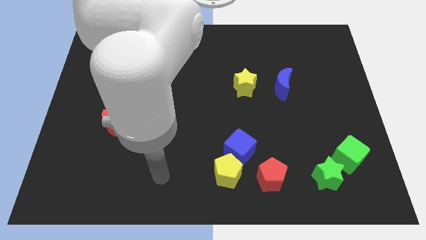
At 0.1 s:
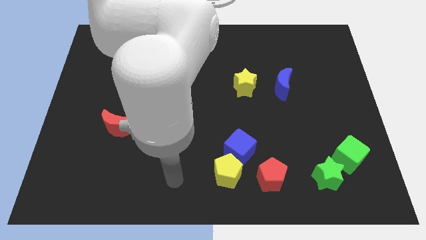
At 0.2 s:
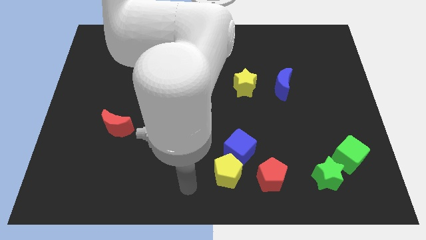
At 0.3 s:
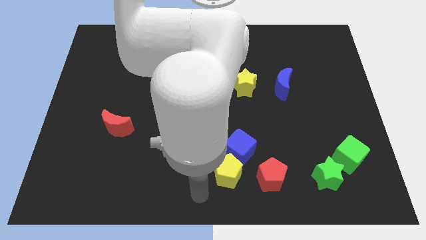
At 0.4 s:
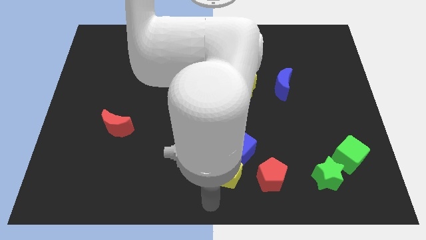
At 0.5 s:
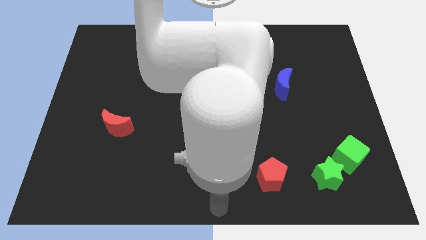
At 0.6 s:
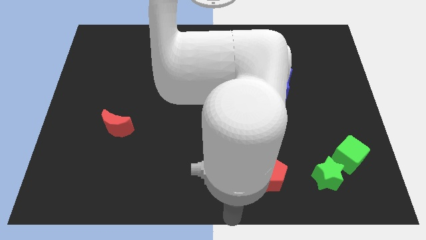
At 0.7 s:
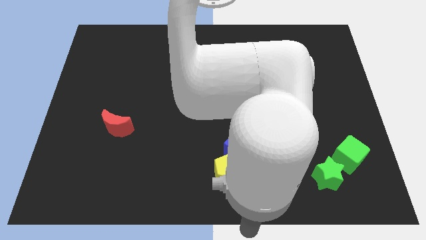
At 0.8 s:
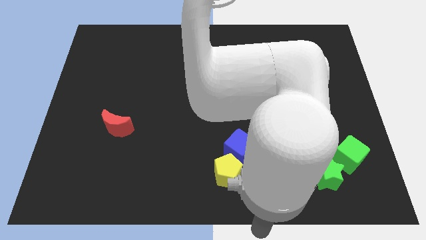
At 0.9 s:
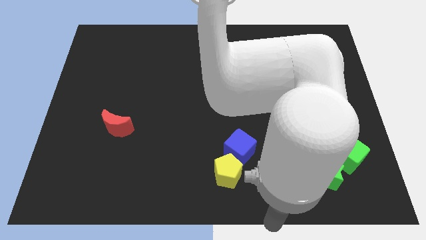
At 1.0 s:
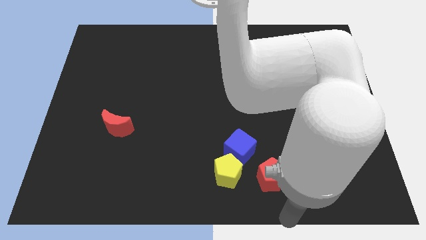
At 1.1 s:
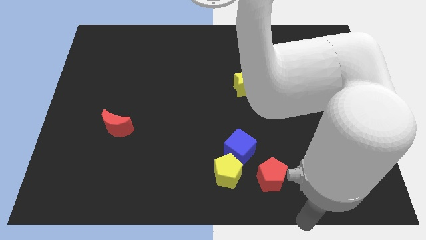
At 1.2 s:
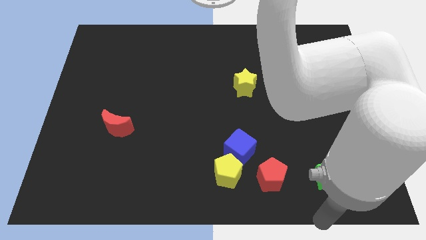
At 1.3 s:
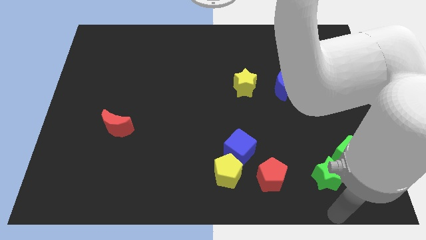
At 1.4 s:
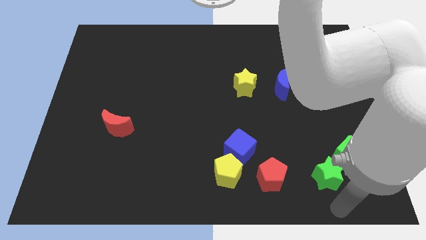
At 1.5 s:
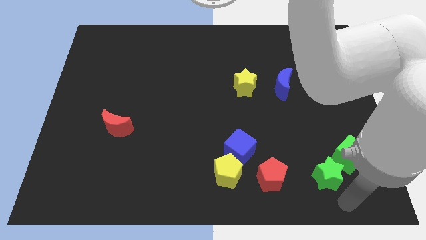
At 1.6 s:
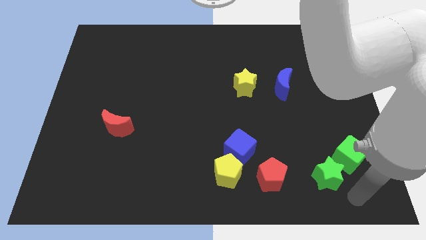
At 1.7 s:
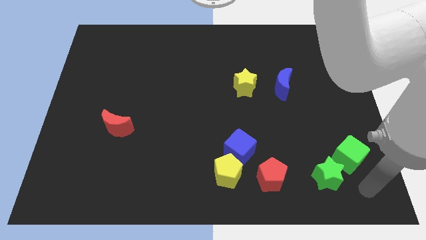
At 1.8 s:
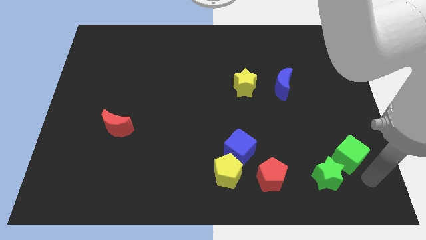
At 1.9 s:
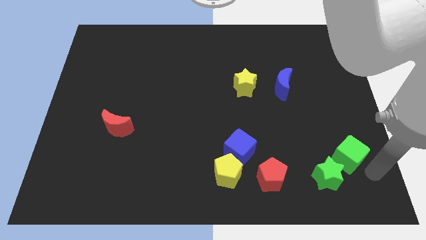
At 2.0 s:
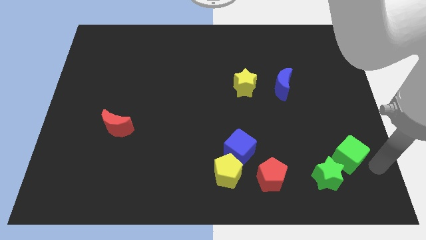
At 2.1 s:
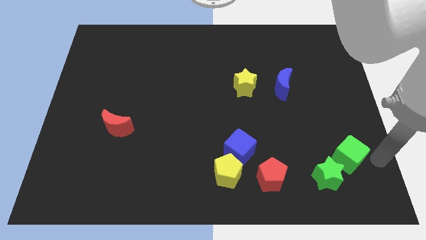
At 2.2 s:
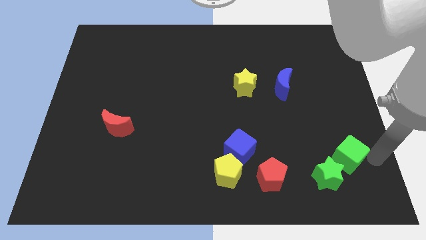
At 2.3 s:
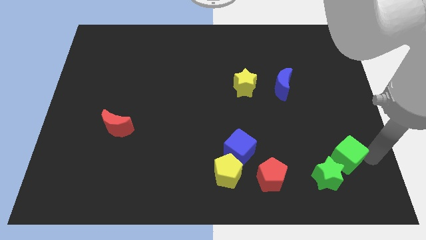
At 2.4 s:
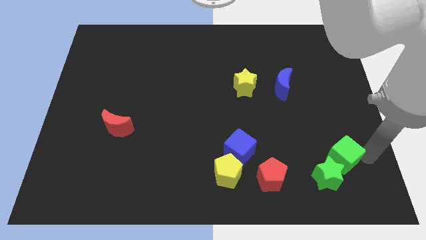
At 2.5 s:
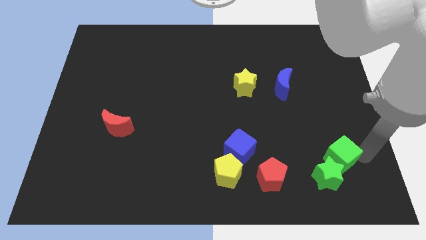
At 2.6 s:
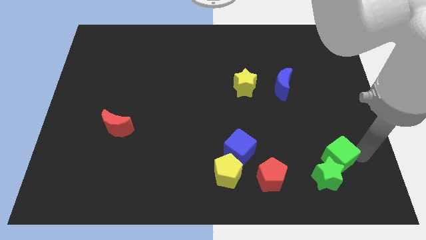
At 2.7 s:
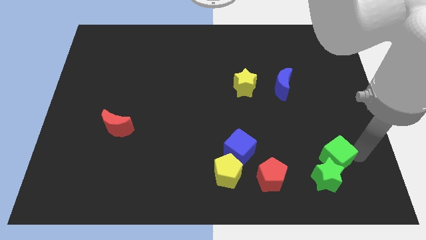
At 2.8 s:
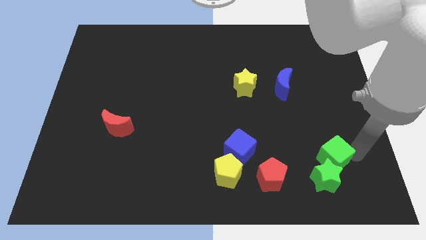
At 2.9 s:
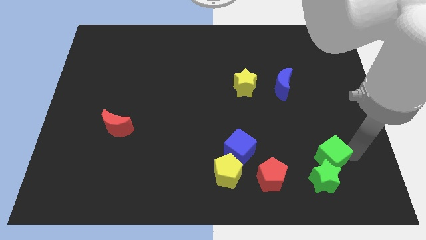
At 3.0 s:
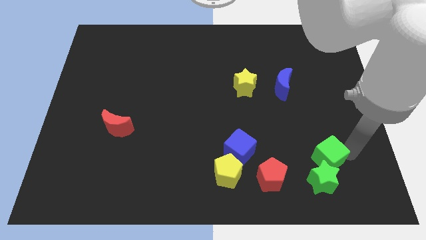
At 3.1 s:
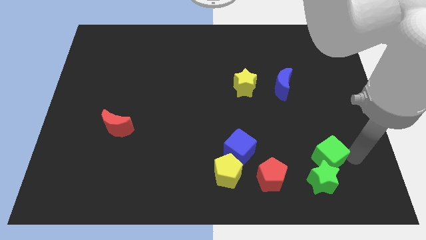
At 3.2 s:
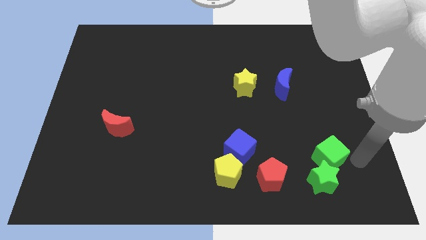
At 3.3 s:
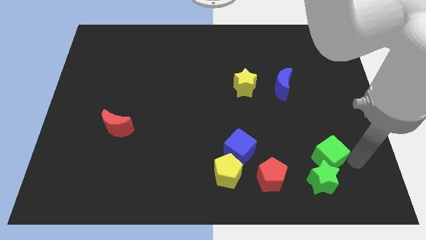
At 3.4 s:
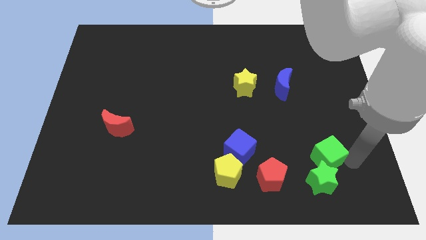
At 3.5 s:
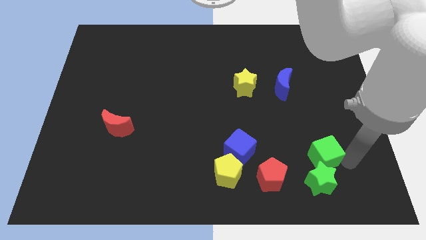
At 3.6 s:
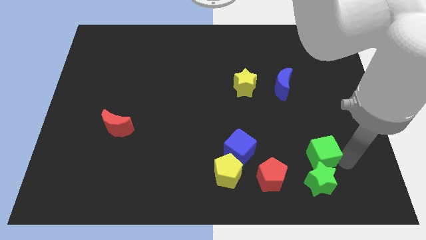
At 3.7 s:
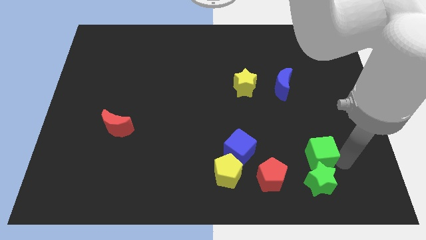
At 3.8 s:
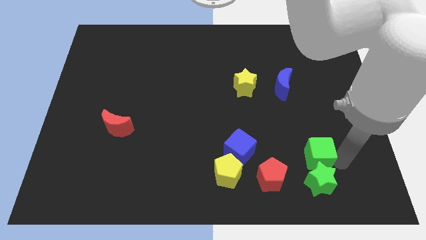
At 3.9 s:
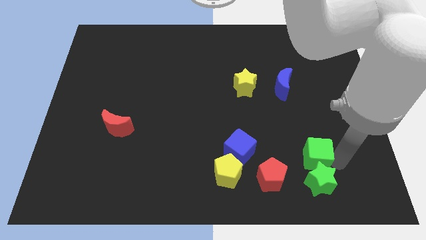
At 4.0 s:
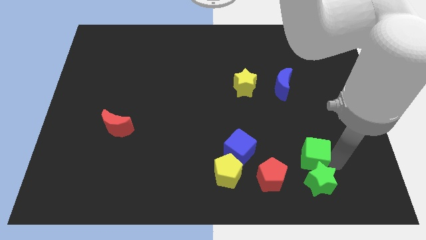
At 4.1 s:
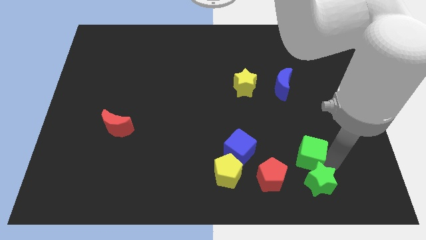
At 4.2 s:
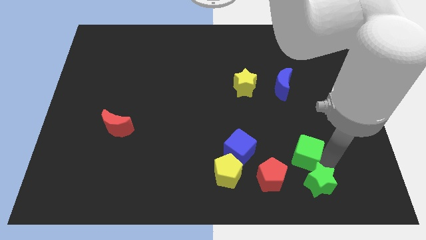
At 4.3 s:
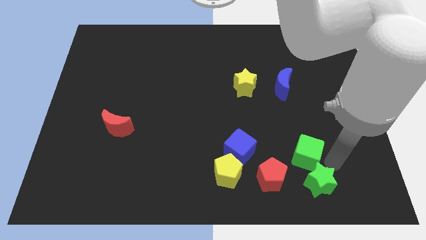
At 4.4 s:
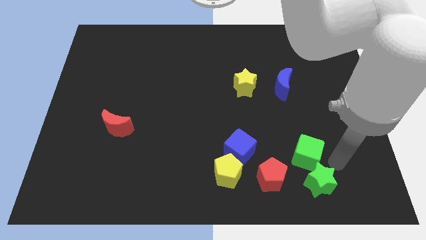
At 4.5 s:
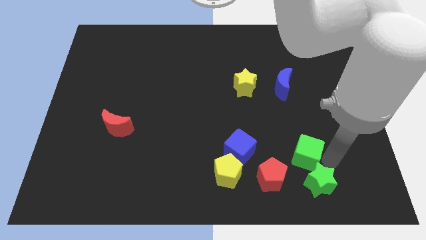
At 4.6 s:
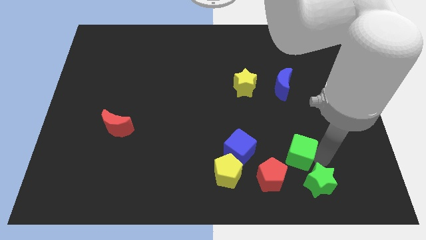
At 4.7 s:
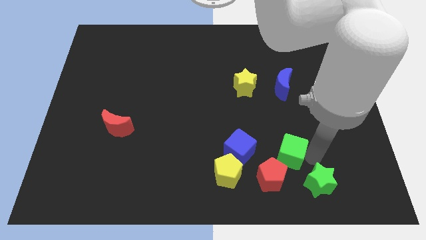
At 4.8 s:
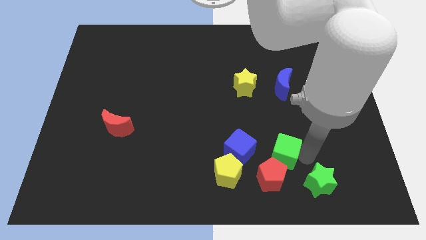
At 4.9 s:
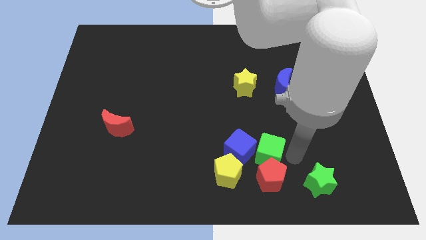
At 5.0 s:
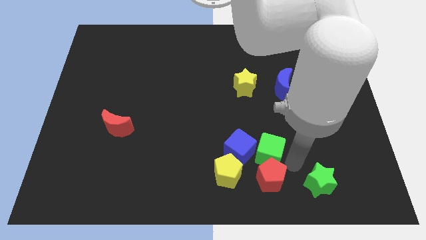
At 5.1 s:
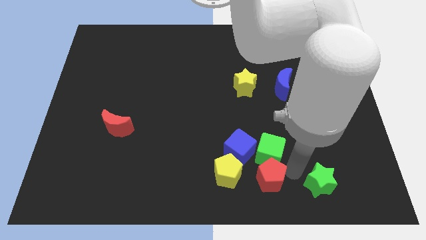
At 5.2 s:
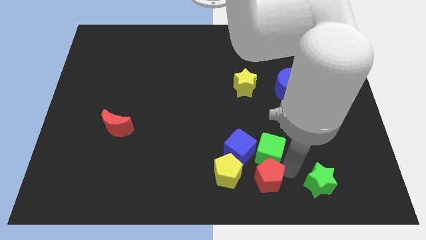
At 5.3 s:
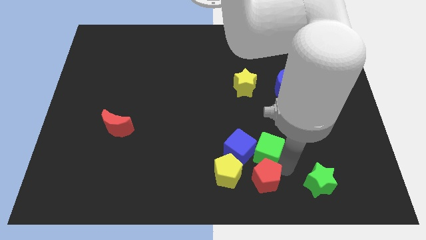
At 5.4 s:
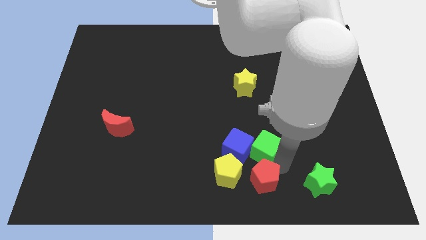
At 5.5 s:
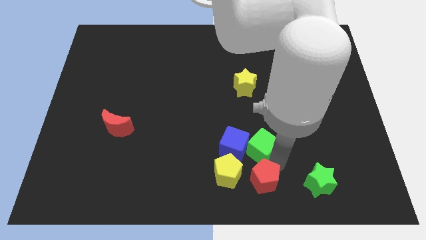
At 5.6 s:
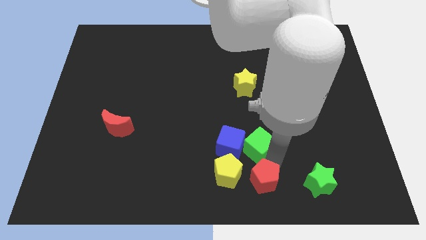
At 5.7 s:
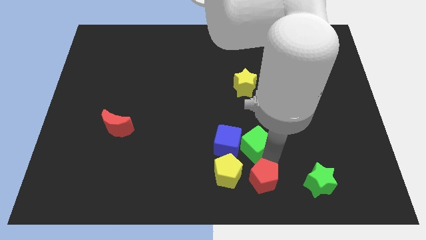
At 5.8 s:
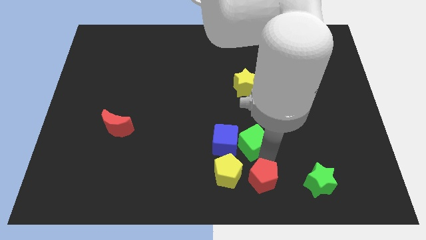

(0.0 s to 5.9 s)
move the green cube left

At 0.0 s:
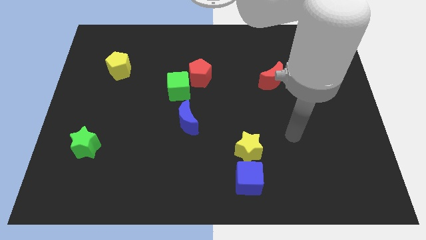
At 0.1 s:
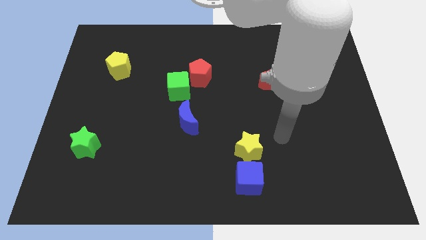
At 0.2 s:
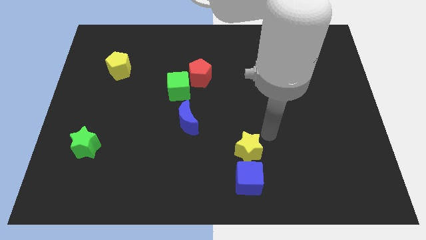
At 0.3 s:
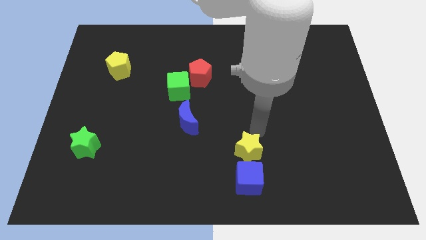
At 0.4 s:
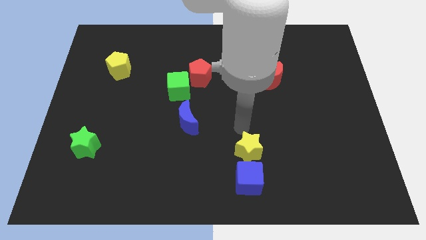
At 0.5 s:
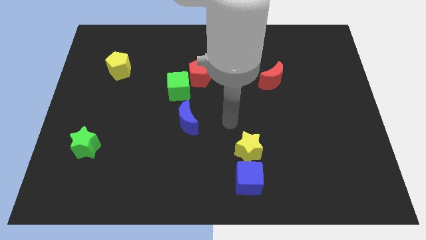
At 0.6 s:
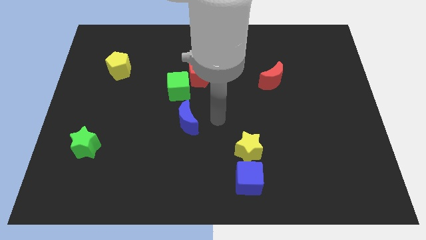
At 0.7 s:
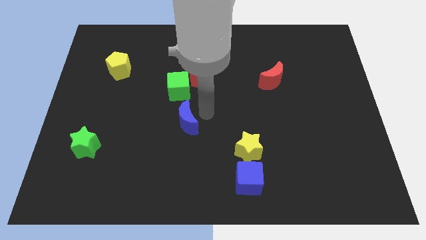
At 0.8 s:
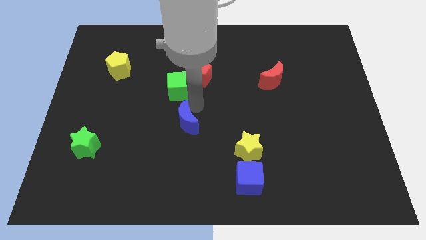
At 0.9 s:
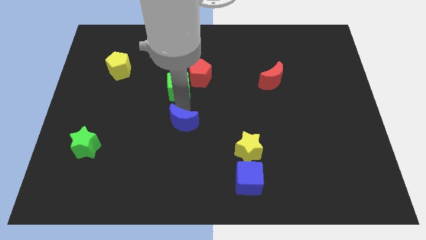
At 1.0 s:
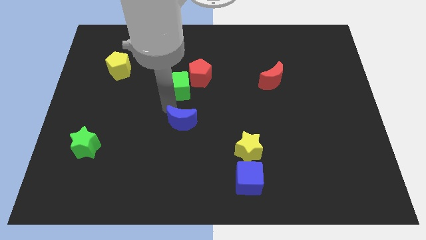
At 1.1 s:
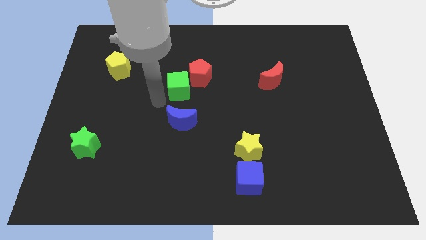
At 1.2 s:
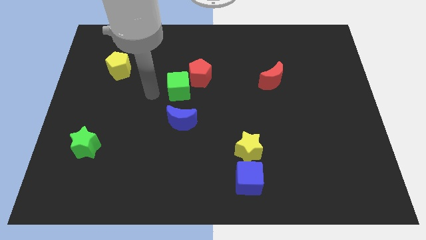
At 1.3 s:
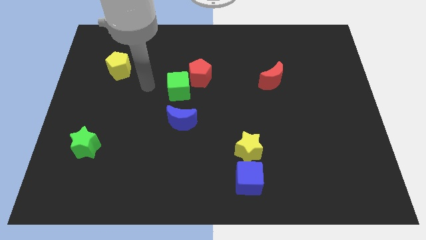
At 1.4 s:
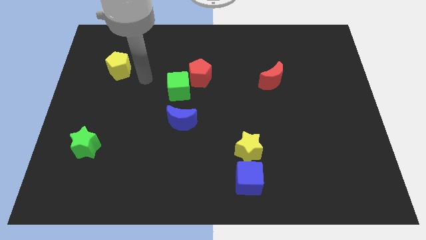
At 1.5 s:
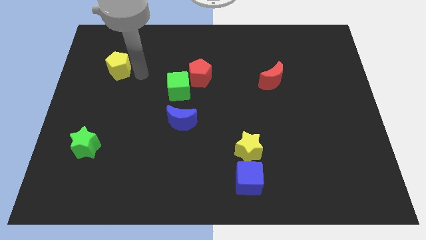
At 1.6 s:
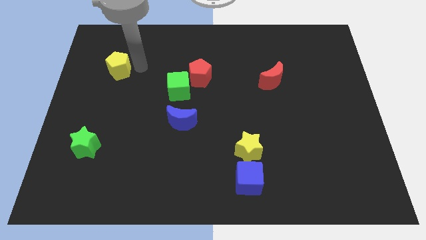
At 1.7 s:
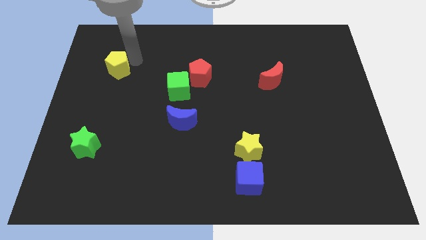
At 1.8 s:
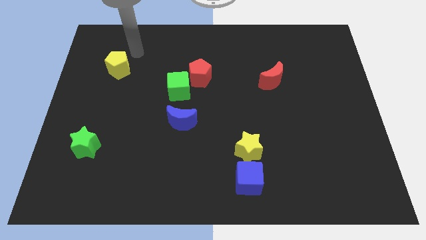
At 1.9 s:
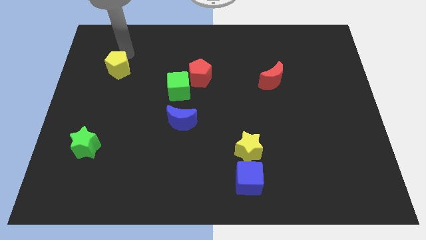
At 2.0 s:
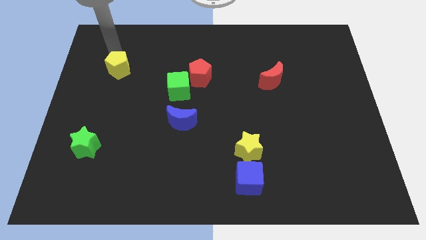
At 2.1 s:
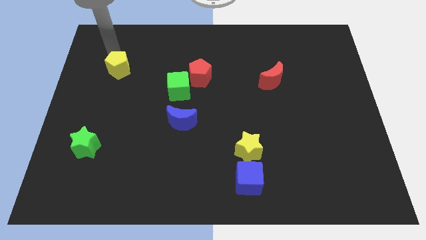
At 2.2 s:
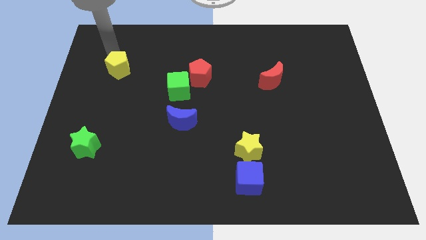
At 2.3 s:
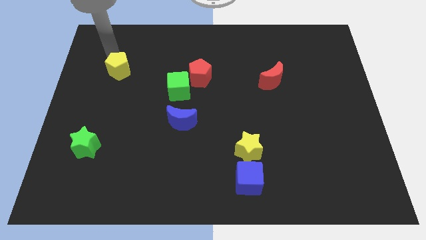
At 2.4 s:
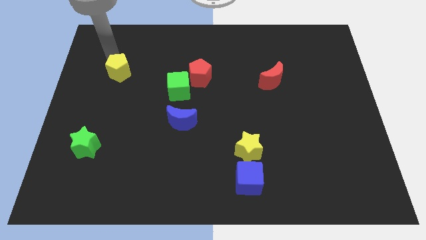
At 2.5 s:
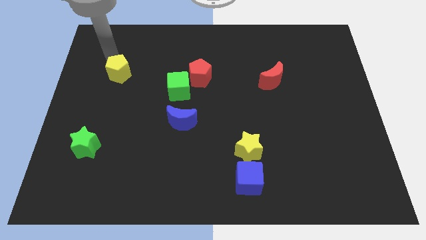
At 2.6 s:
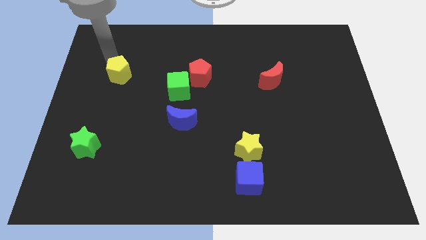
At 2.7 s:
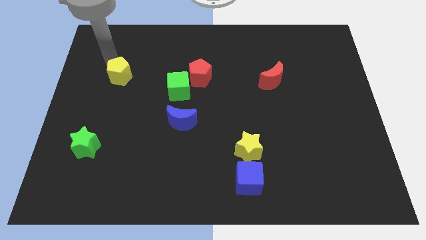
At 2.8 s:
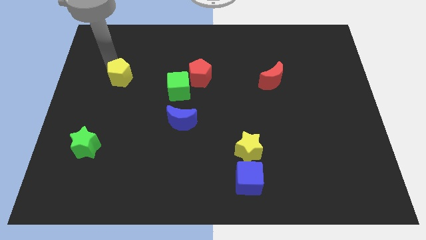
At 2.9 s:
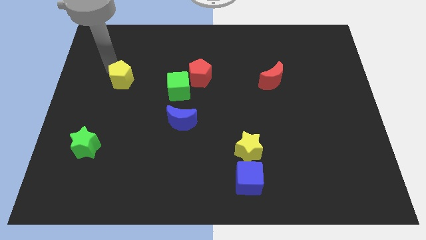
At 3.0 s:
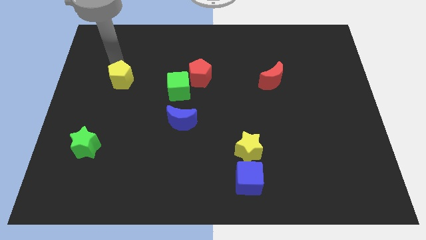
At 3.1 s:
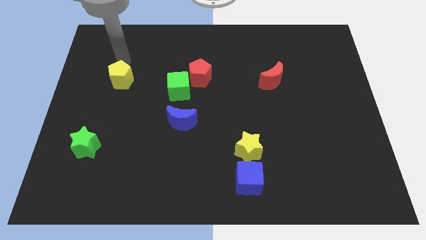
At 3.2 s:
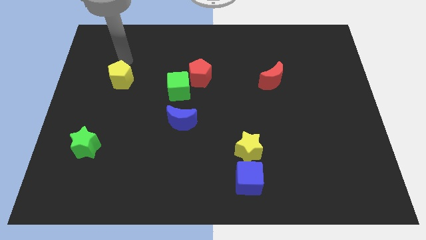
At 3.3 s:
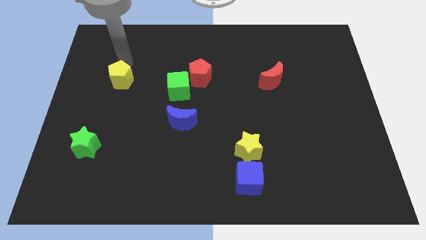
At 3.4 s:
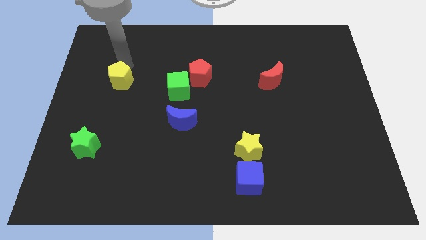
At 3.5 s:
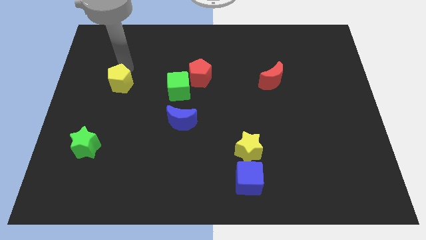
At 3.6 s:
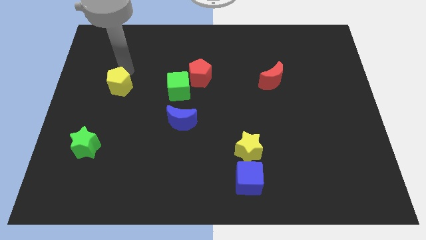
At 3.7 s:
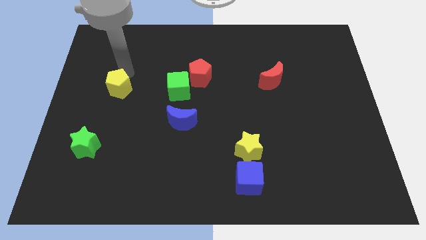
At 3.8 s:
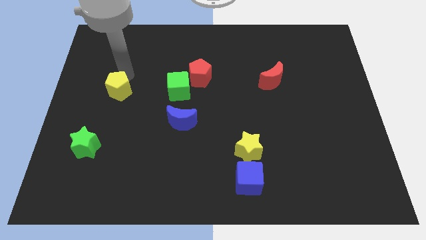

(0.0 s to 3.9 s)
slightly push the yellow pentagon downwards
